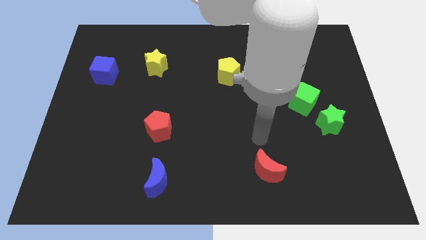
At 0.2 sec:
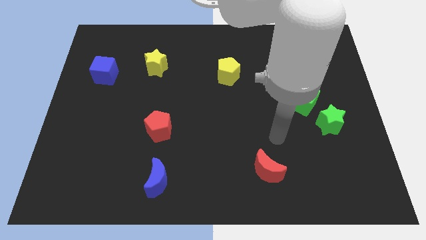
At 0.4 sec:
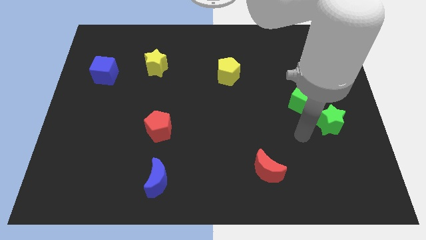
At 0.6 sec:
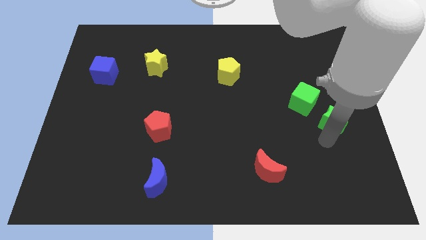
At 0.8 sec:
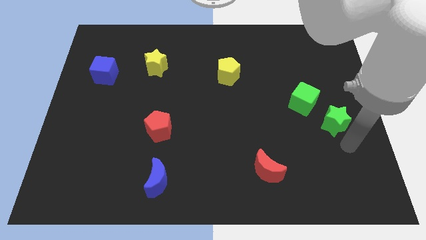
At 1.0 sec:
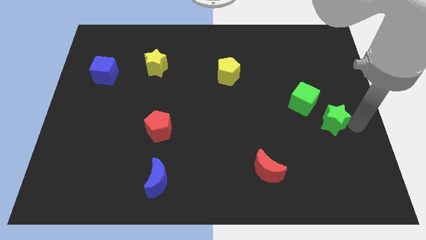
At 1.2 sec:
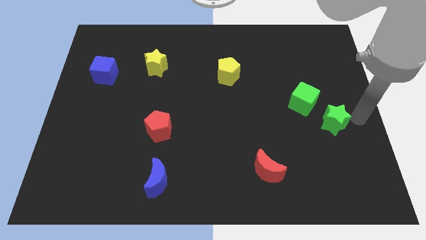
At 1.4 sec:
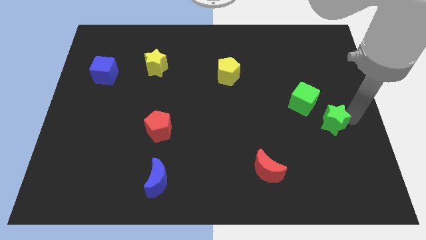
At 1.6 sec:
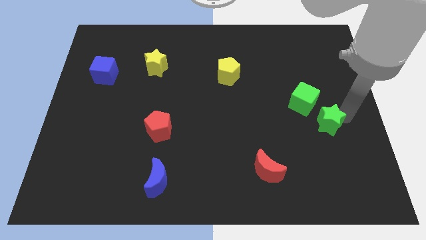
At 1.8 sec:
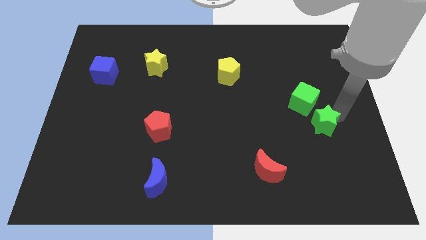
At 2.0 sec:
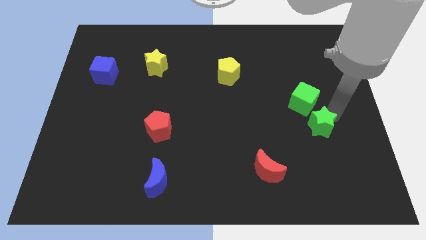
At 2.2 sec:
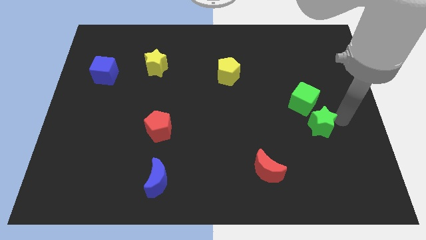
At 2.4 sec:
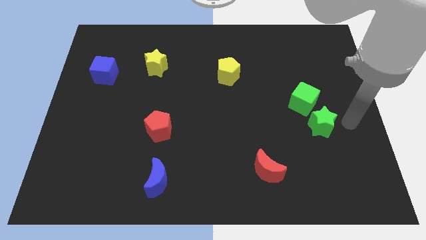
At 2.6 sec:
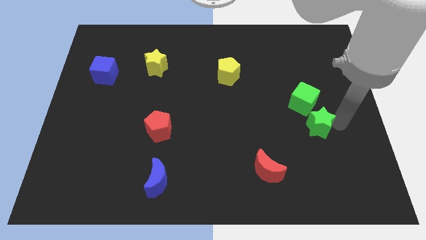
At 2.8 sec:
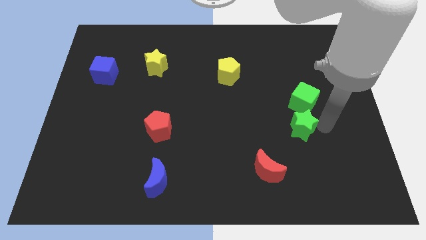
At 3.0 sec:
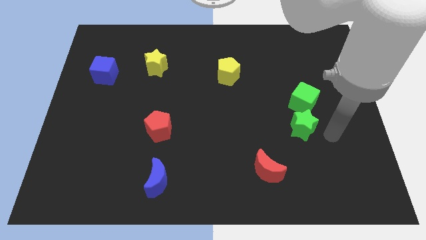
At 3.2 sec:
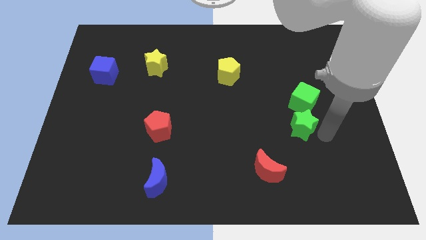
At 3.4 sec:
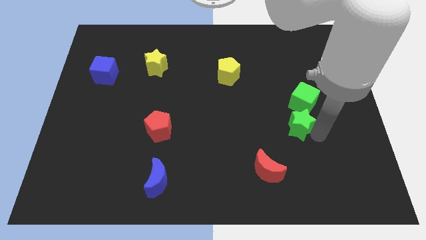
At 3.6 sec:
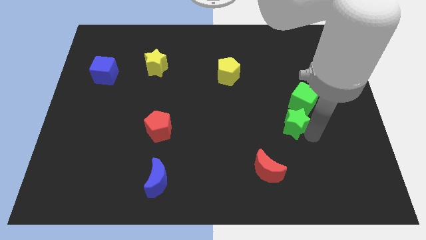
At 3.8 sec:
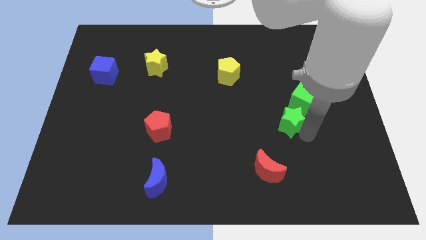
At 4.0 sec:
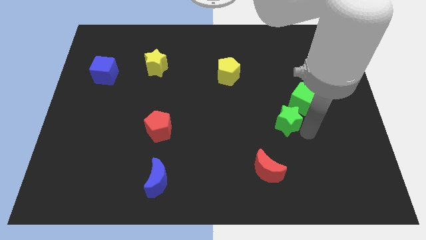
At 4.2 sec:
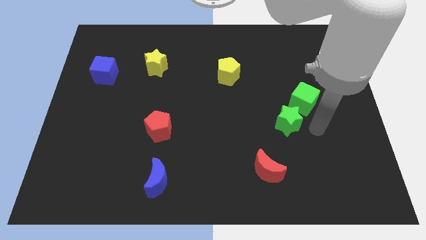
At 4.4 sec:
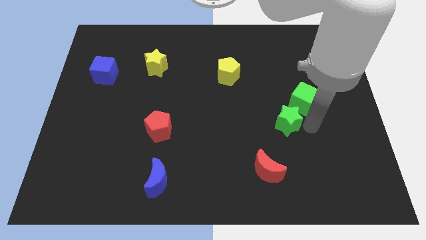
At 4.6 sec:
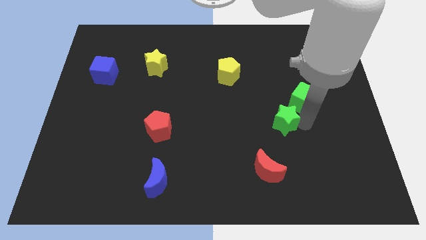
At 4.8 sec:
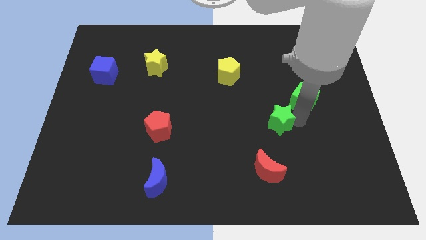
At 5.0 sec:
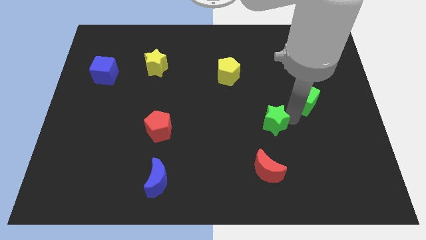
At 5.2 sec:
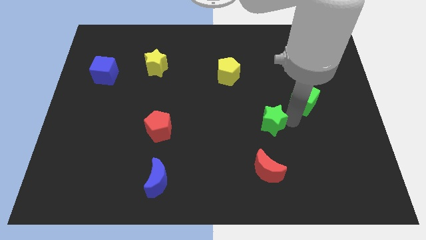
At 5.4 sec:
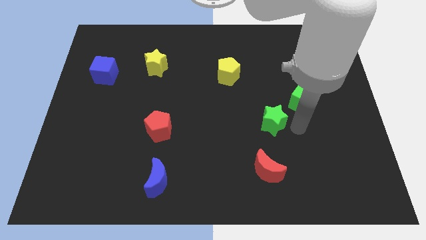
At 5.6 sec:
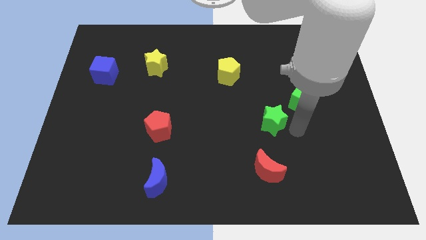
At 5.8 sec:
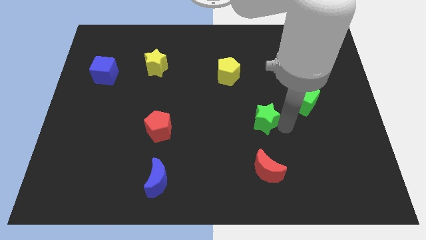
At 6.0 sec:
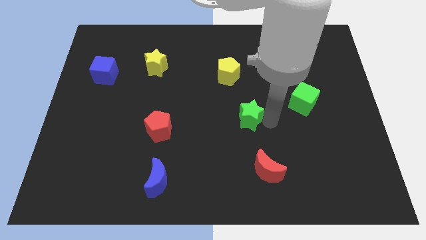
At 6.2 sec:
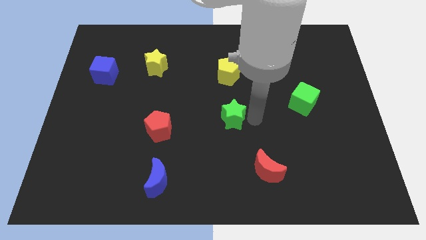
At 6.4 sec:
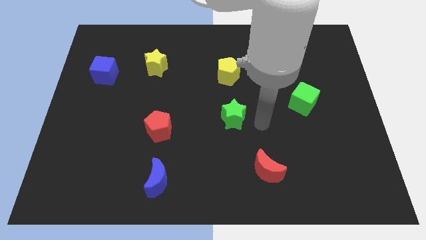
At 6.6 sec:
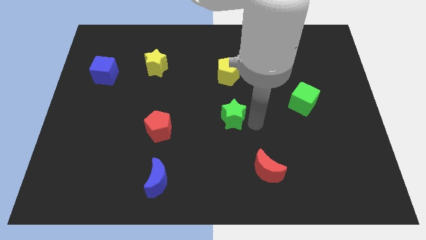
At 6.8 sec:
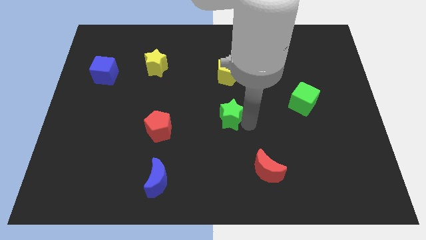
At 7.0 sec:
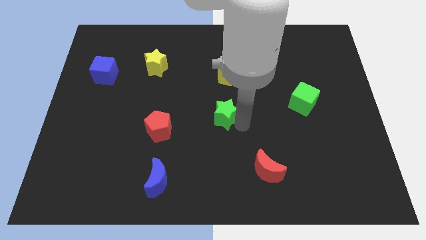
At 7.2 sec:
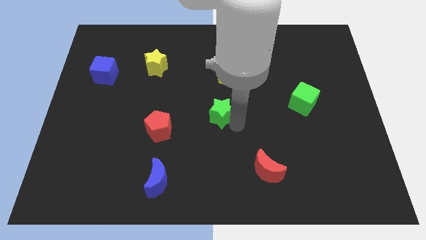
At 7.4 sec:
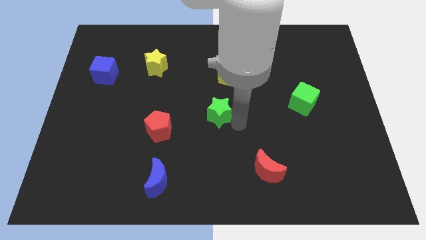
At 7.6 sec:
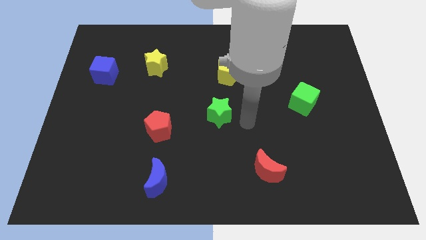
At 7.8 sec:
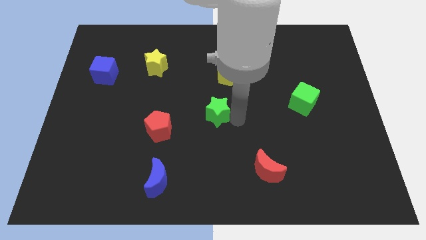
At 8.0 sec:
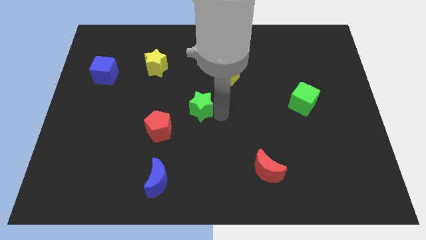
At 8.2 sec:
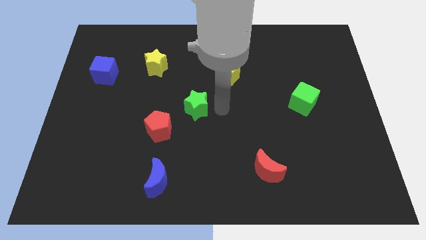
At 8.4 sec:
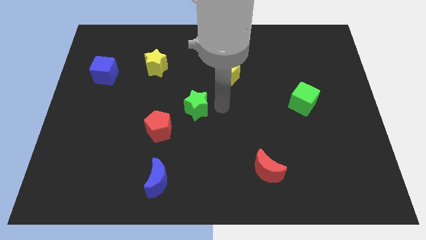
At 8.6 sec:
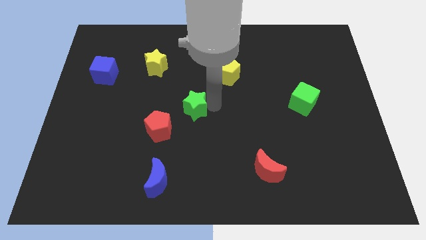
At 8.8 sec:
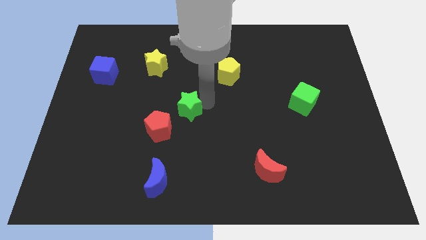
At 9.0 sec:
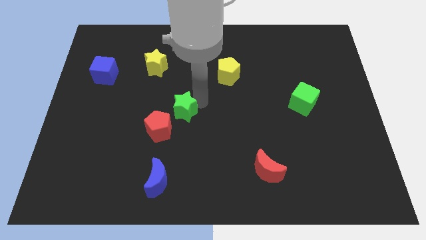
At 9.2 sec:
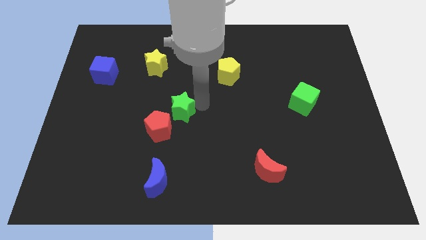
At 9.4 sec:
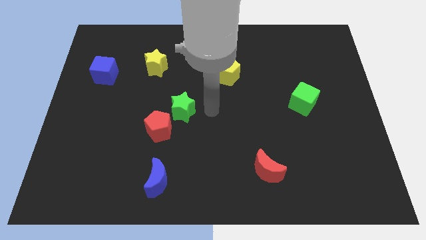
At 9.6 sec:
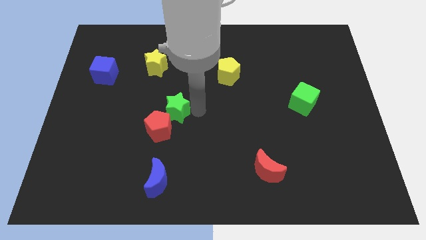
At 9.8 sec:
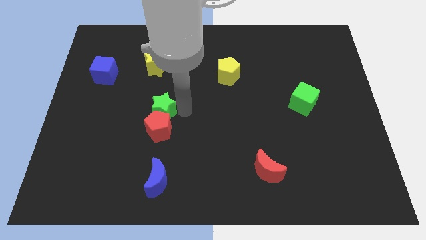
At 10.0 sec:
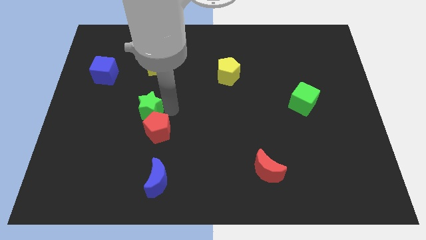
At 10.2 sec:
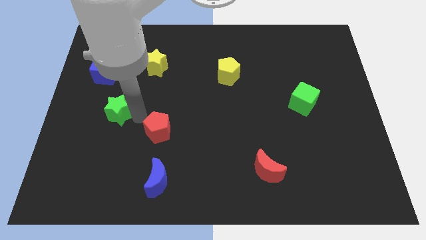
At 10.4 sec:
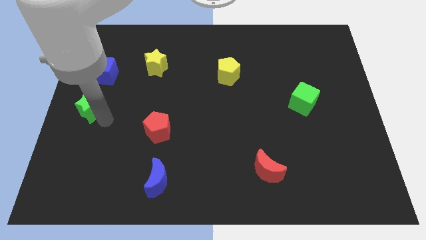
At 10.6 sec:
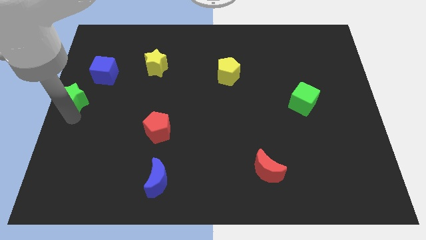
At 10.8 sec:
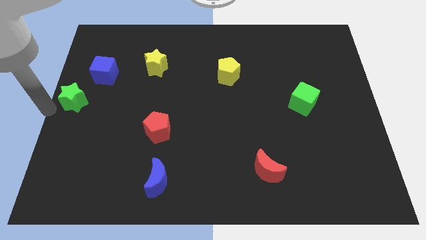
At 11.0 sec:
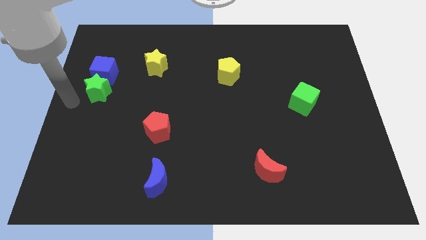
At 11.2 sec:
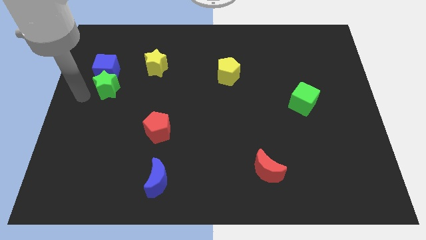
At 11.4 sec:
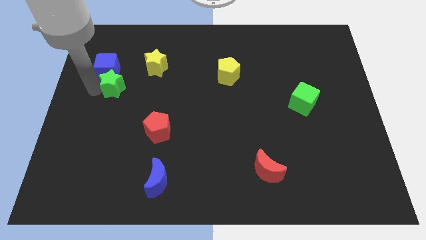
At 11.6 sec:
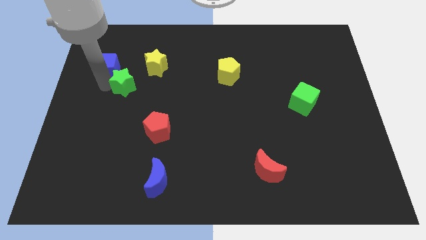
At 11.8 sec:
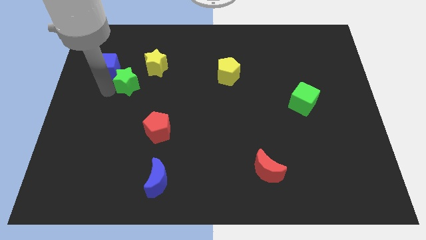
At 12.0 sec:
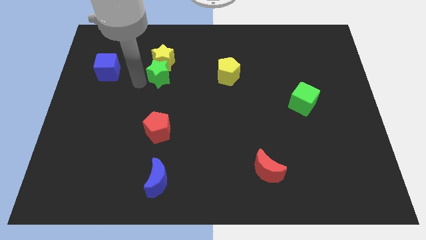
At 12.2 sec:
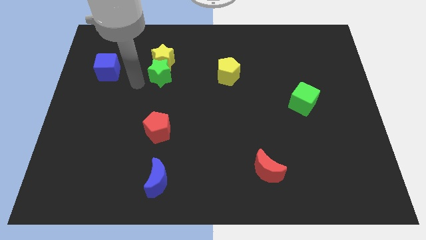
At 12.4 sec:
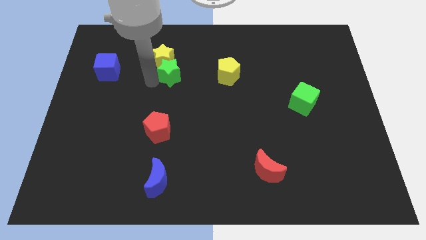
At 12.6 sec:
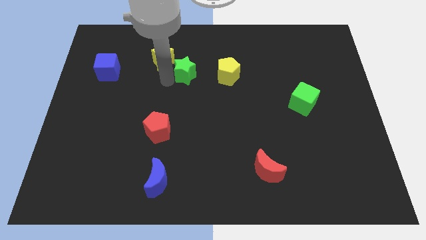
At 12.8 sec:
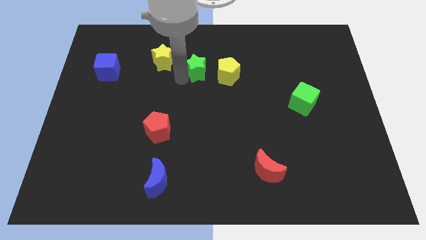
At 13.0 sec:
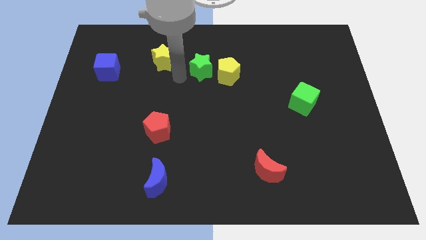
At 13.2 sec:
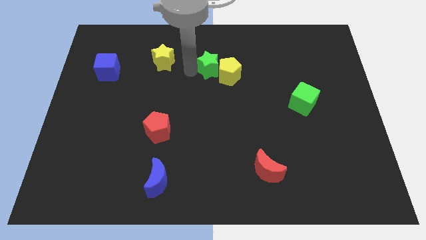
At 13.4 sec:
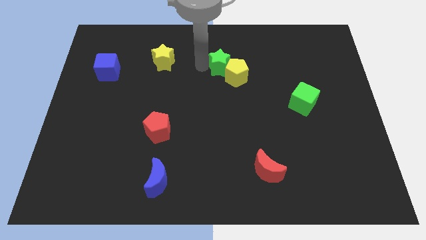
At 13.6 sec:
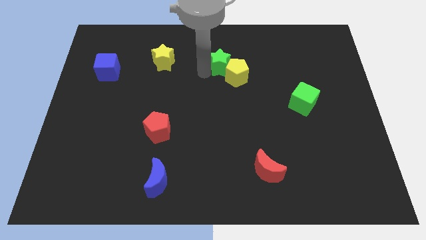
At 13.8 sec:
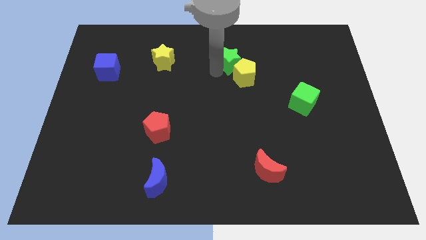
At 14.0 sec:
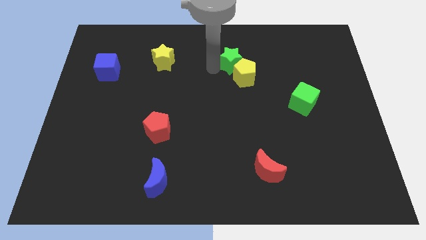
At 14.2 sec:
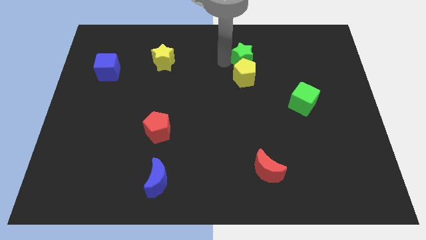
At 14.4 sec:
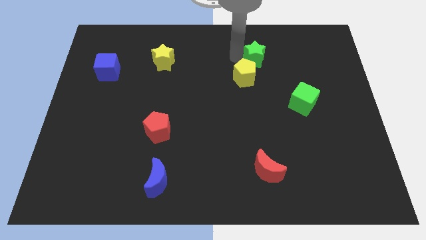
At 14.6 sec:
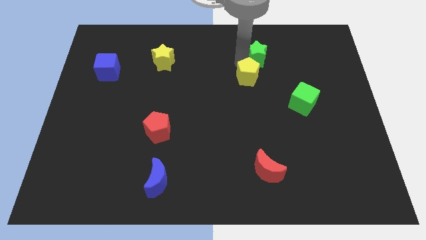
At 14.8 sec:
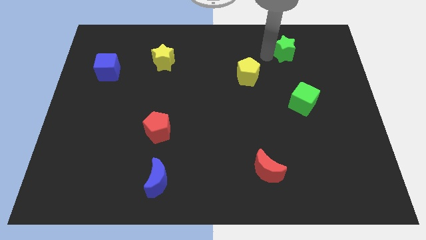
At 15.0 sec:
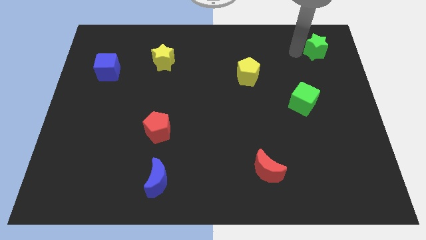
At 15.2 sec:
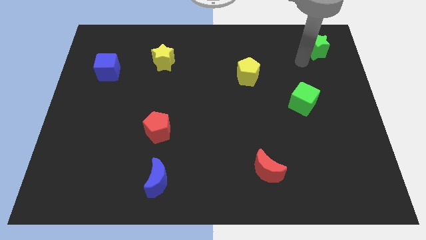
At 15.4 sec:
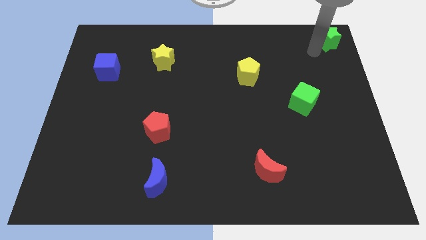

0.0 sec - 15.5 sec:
put the green star to the top right of the board
